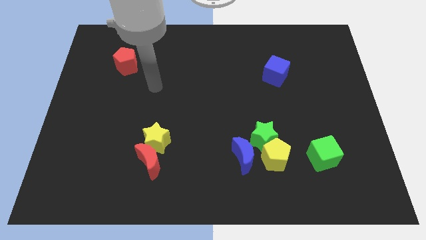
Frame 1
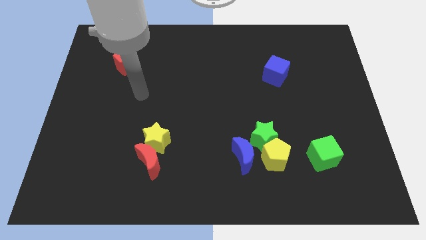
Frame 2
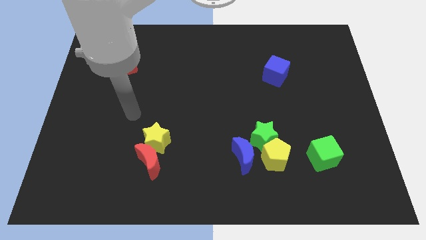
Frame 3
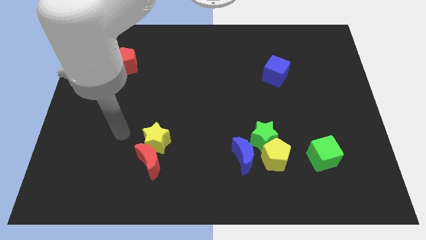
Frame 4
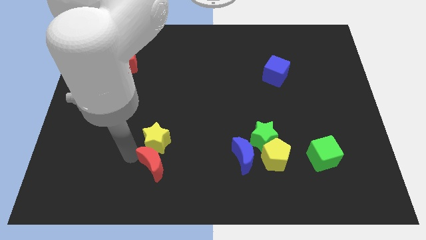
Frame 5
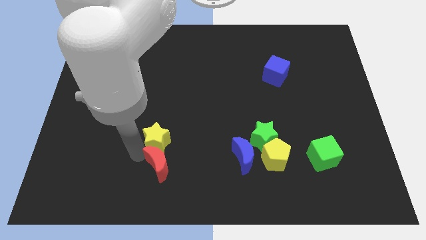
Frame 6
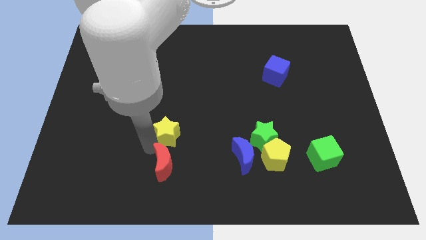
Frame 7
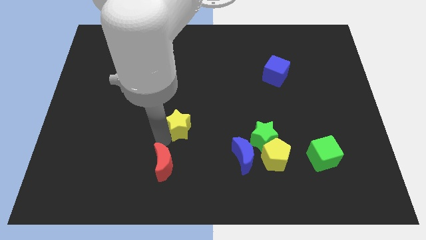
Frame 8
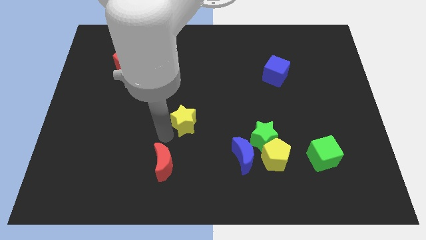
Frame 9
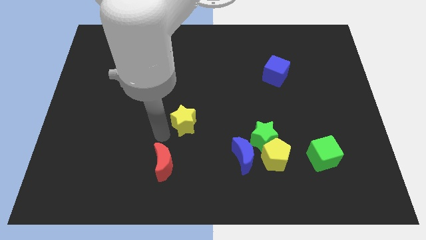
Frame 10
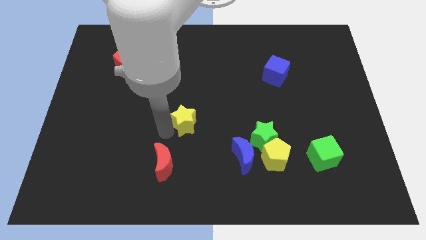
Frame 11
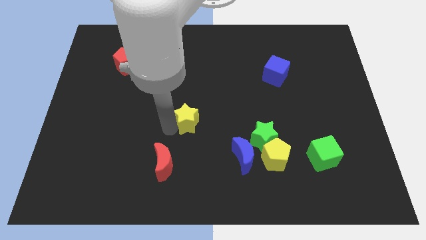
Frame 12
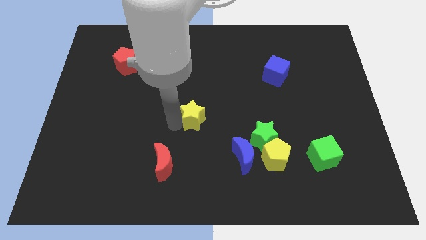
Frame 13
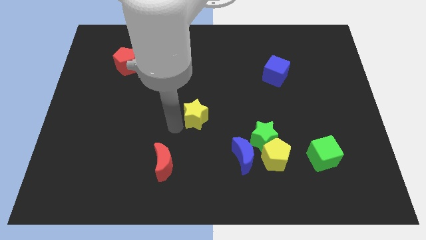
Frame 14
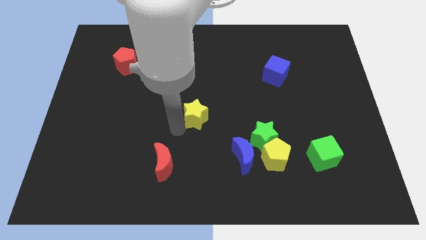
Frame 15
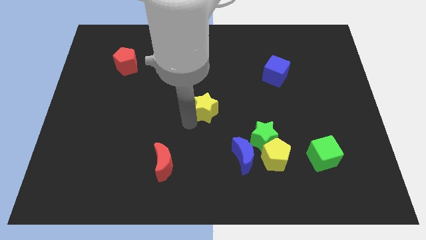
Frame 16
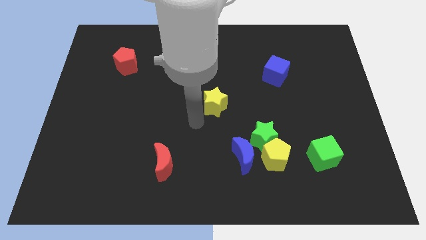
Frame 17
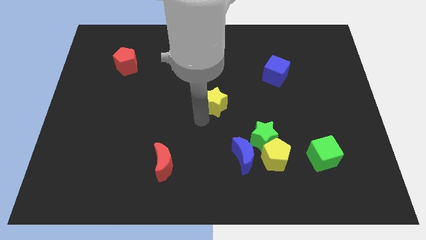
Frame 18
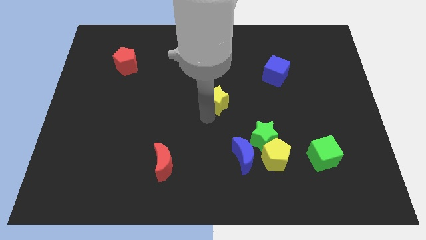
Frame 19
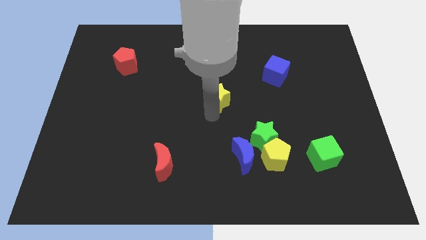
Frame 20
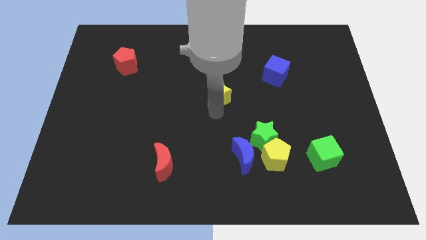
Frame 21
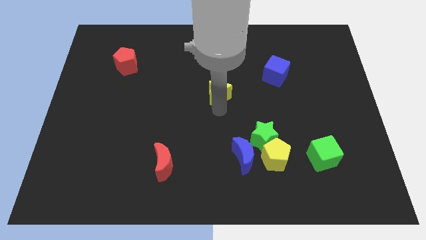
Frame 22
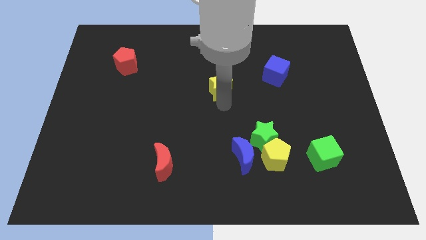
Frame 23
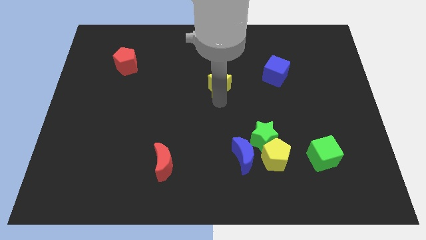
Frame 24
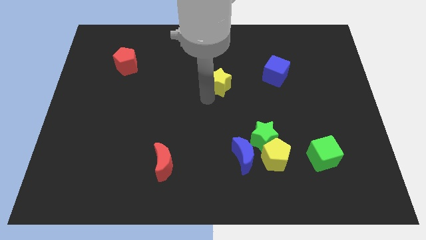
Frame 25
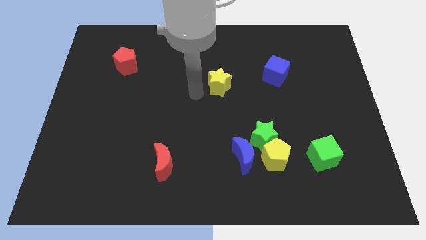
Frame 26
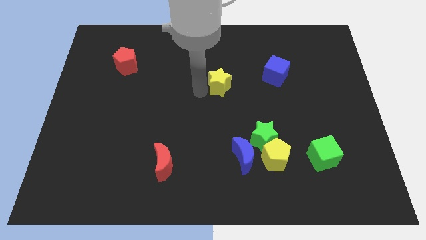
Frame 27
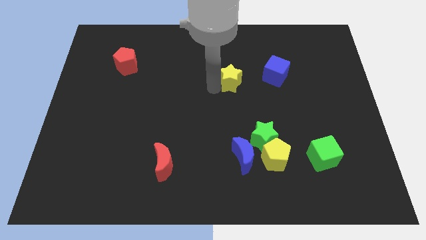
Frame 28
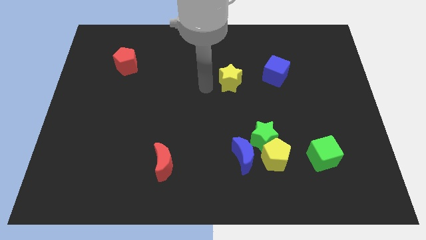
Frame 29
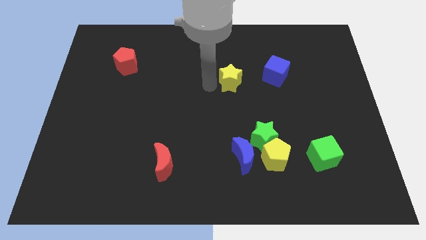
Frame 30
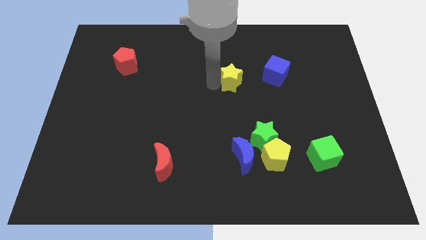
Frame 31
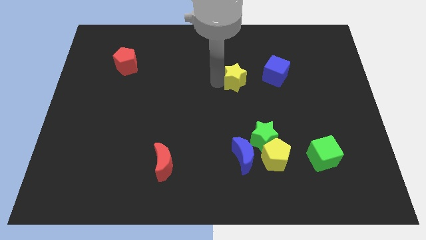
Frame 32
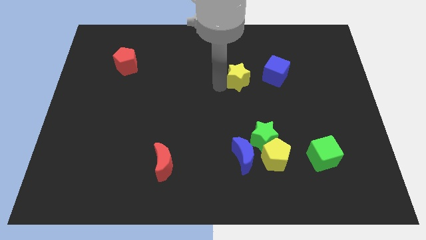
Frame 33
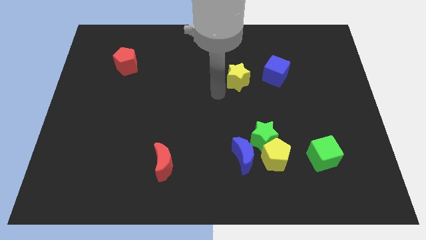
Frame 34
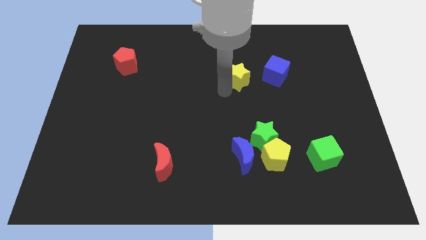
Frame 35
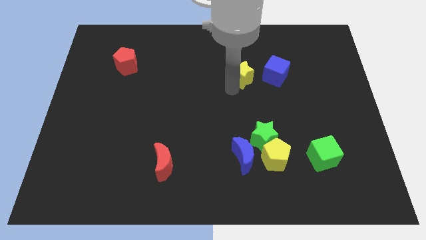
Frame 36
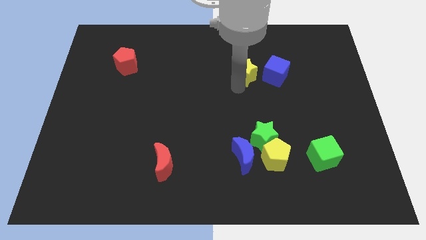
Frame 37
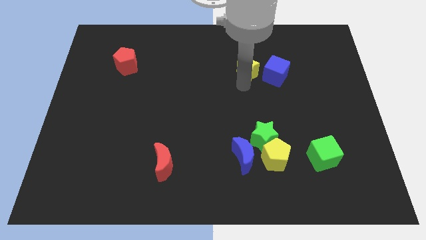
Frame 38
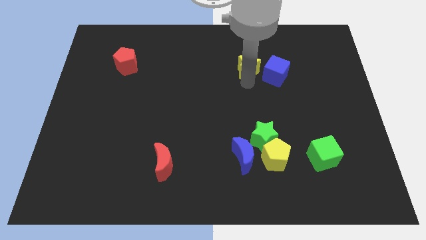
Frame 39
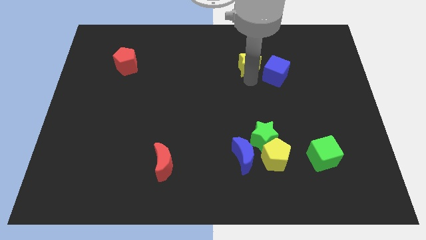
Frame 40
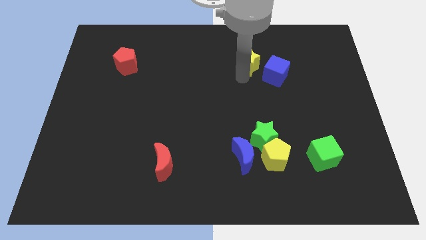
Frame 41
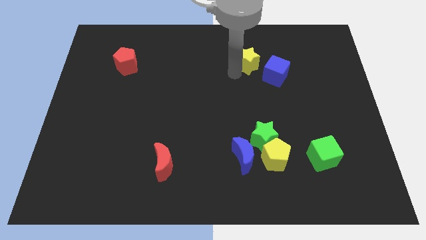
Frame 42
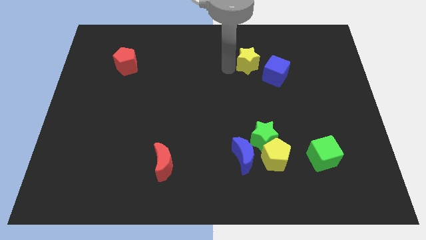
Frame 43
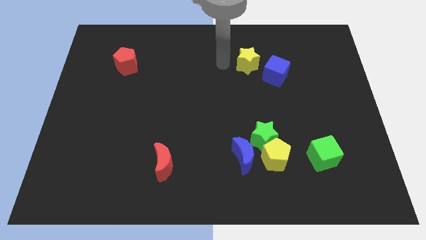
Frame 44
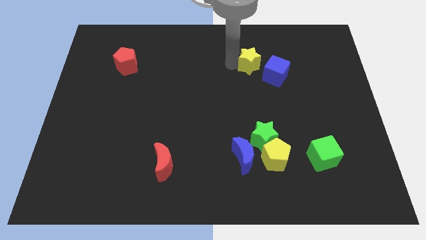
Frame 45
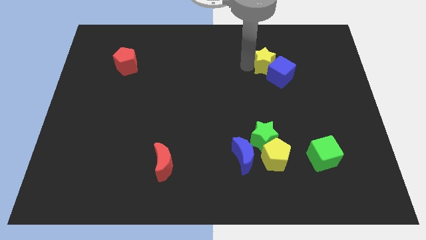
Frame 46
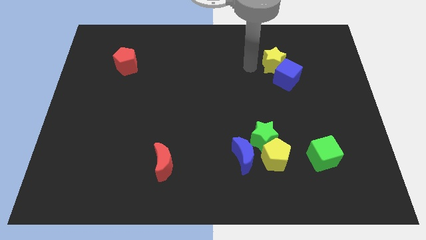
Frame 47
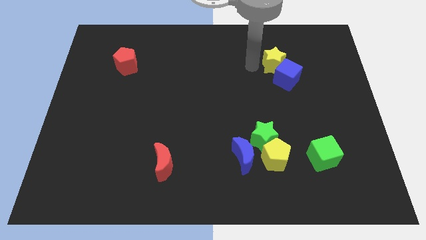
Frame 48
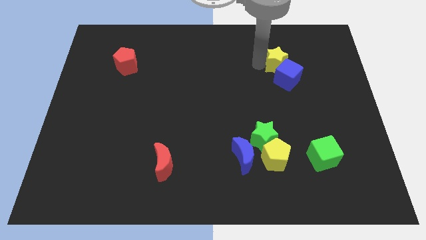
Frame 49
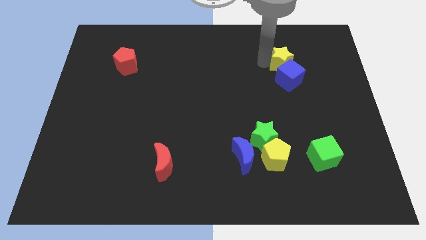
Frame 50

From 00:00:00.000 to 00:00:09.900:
move the yellow star to the top right side of the blue cube
